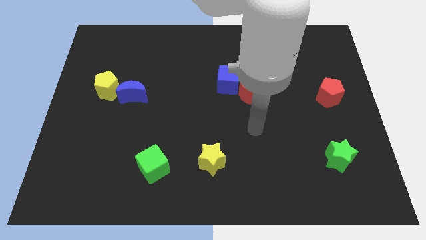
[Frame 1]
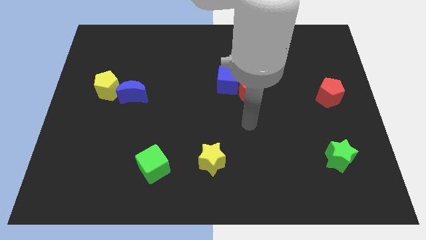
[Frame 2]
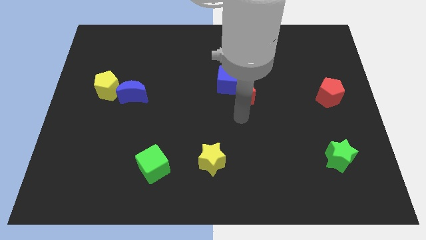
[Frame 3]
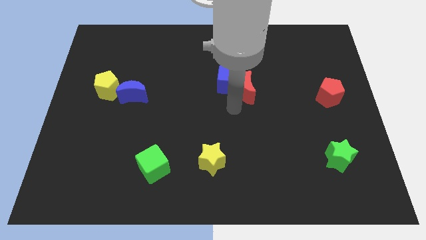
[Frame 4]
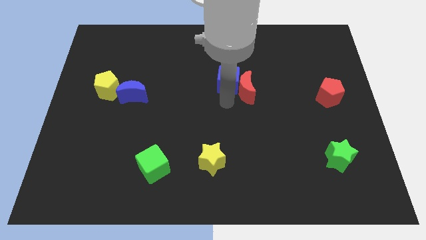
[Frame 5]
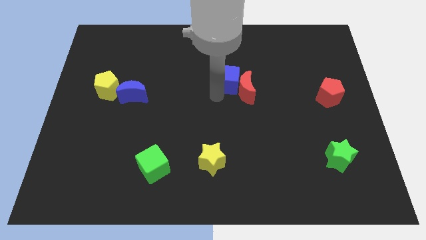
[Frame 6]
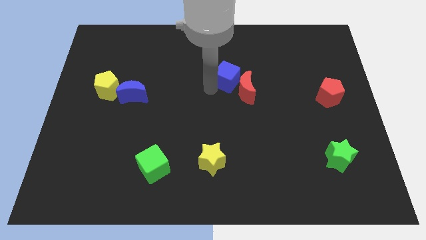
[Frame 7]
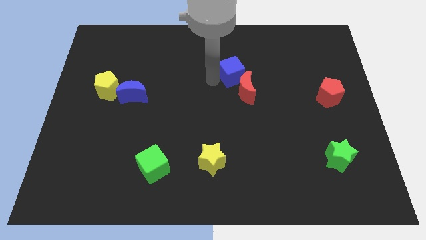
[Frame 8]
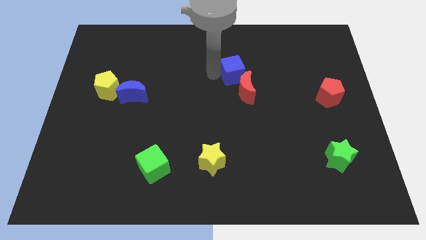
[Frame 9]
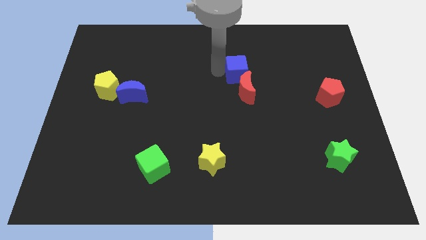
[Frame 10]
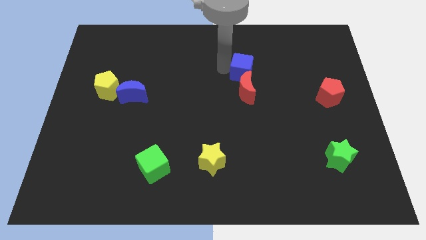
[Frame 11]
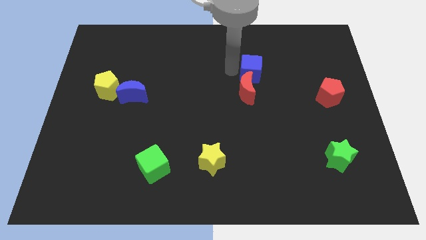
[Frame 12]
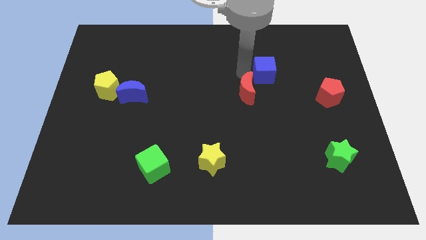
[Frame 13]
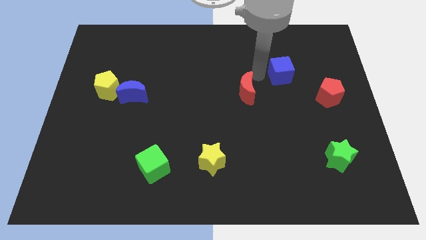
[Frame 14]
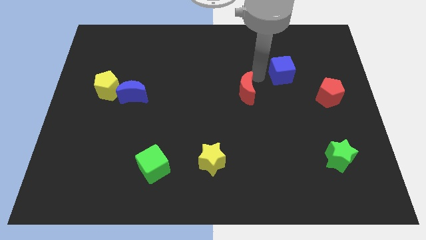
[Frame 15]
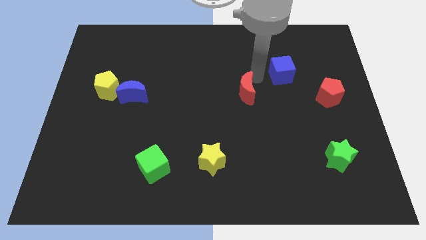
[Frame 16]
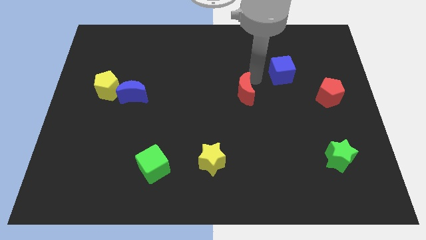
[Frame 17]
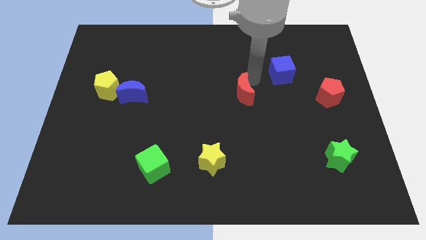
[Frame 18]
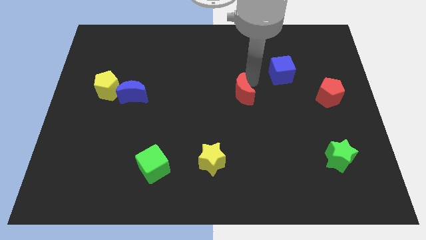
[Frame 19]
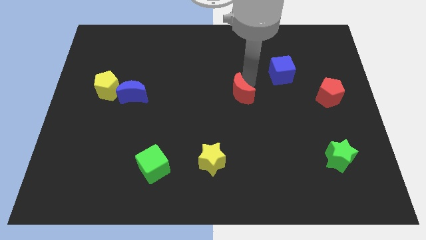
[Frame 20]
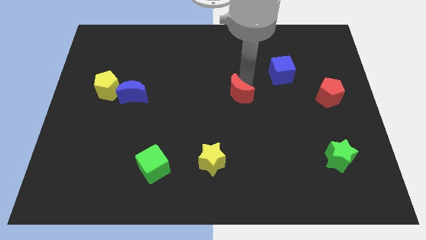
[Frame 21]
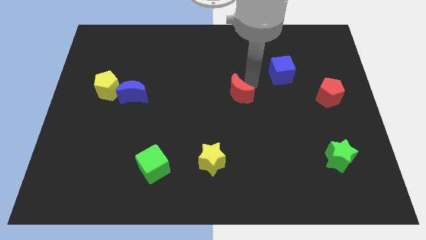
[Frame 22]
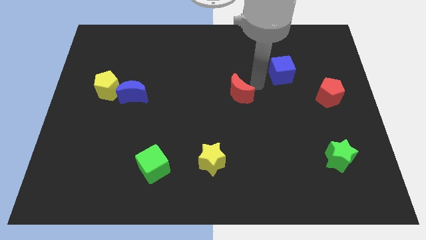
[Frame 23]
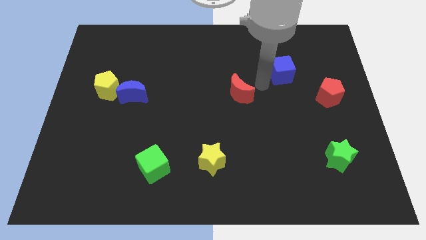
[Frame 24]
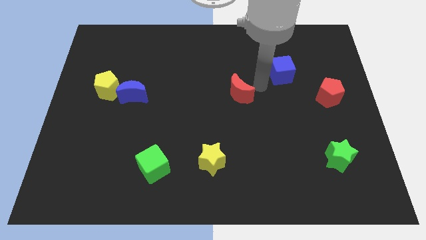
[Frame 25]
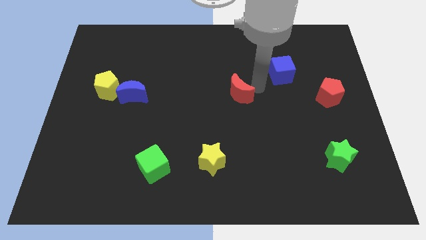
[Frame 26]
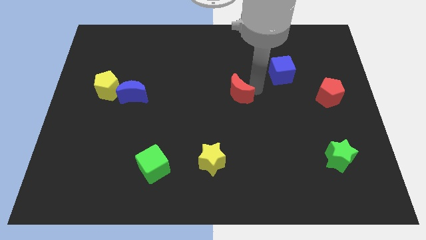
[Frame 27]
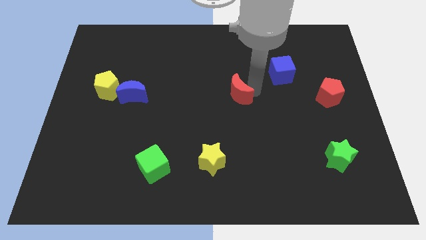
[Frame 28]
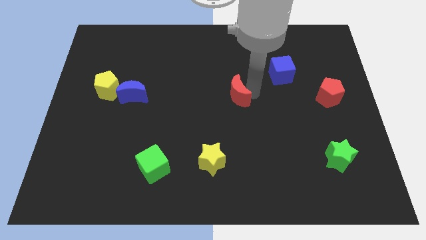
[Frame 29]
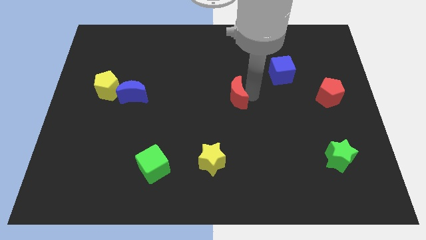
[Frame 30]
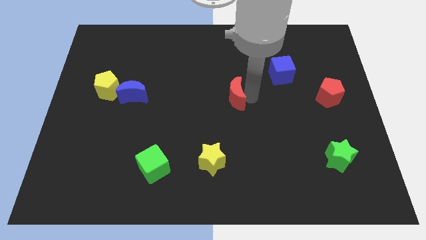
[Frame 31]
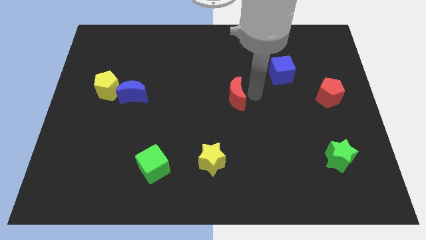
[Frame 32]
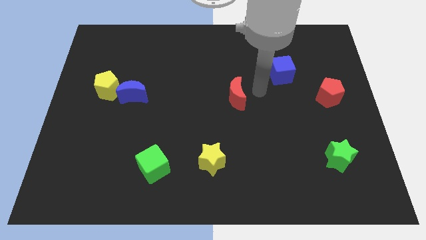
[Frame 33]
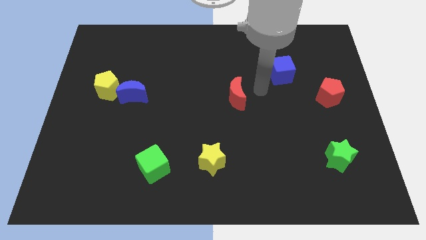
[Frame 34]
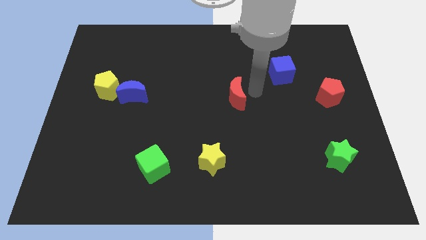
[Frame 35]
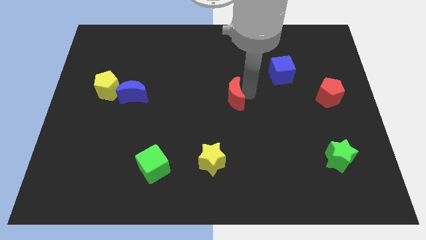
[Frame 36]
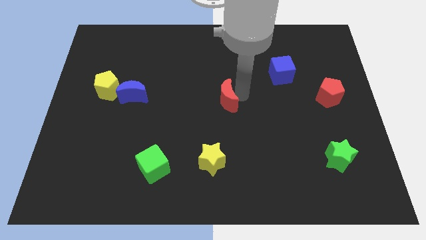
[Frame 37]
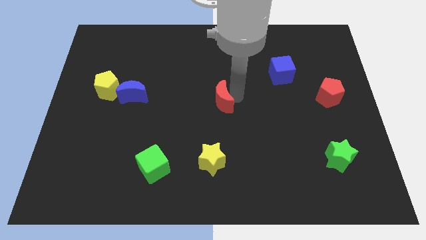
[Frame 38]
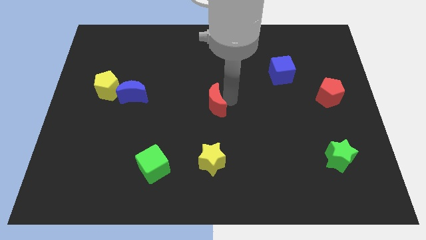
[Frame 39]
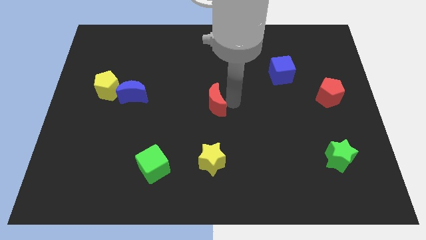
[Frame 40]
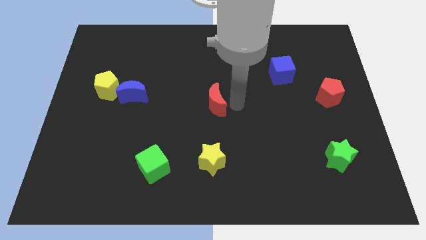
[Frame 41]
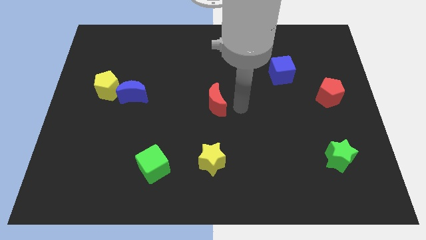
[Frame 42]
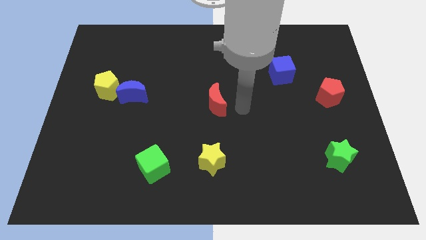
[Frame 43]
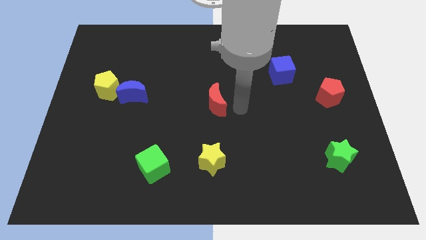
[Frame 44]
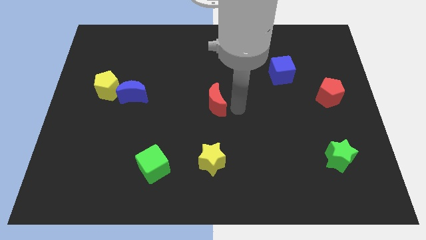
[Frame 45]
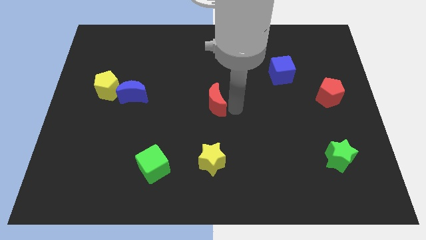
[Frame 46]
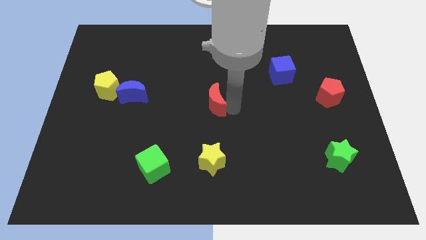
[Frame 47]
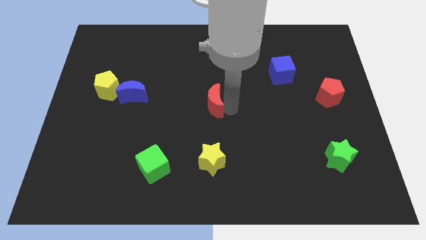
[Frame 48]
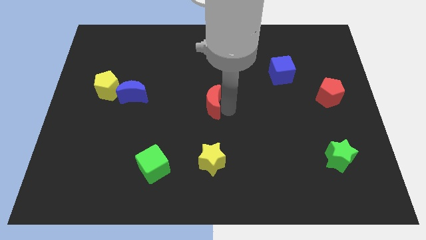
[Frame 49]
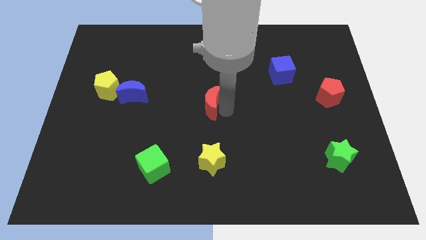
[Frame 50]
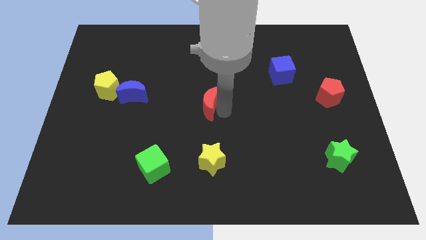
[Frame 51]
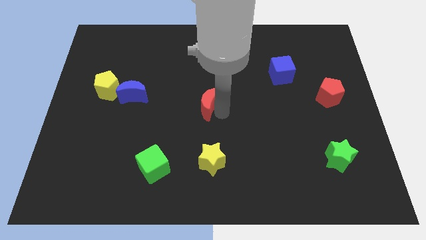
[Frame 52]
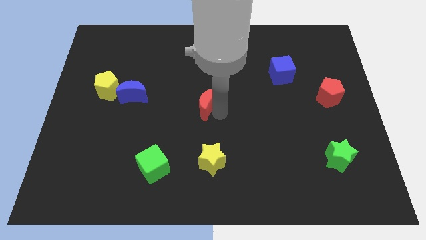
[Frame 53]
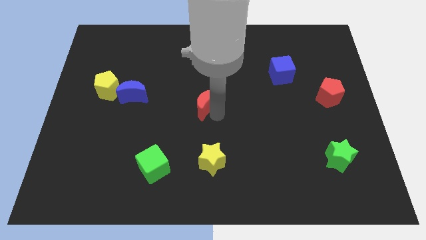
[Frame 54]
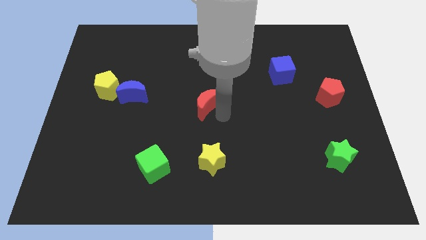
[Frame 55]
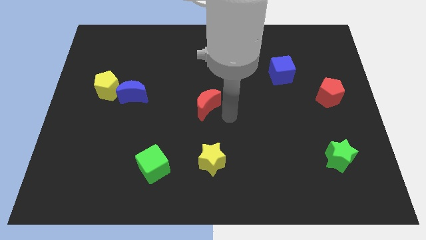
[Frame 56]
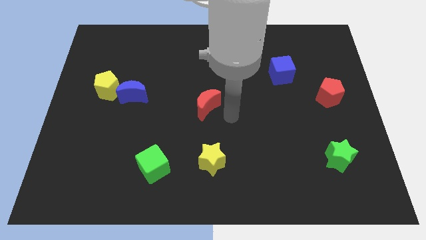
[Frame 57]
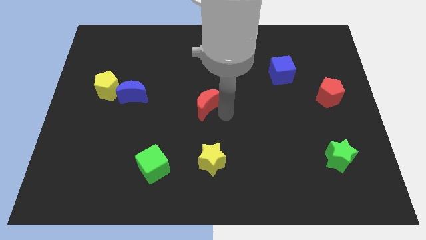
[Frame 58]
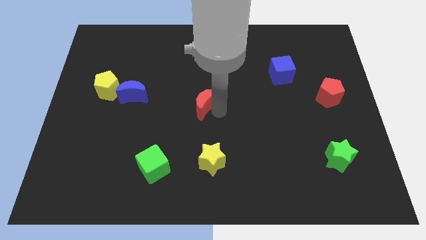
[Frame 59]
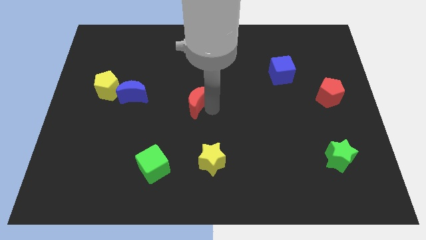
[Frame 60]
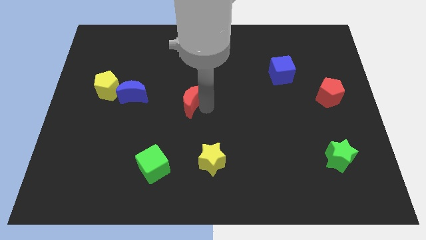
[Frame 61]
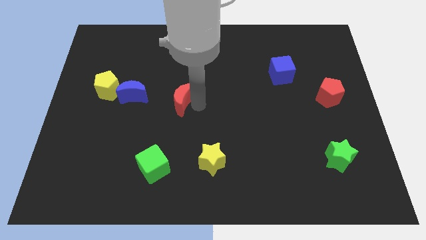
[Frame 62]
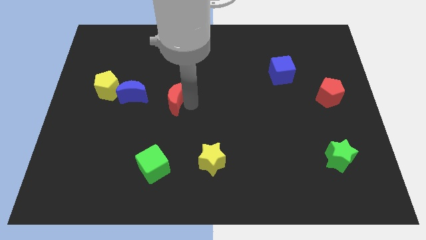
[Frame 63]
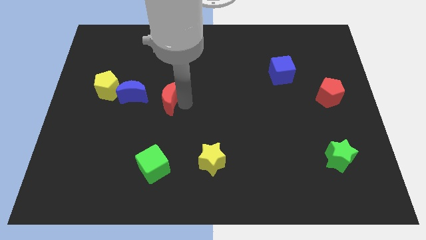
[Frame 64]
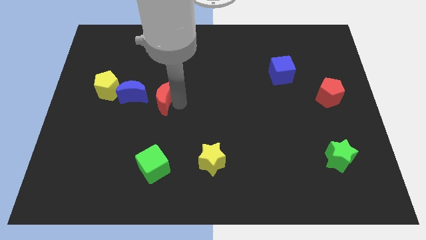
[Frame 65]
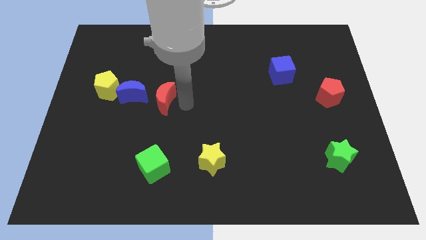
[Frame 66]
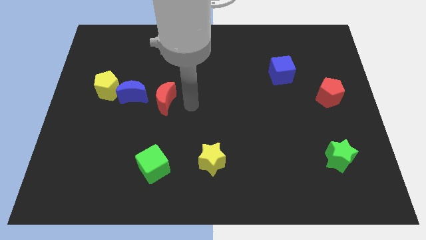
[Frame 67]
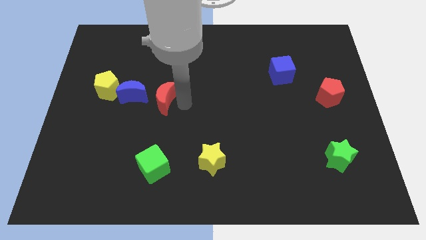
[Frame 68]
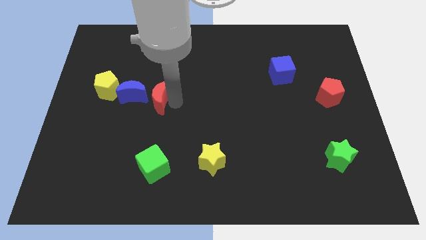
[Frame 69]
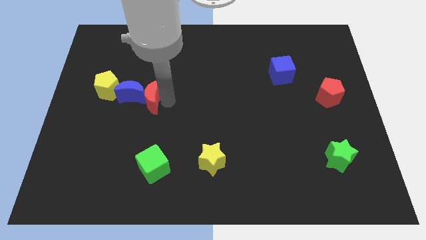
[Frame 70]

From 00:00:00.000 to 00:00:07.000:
move the red moon close to the blue moon
